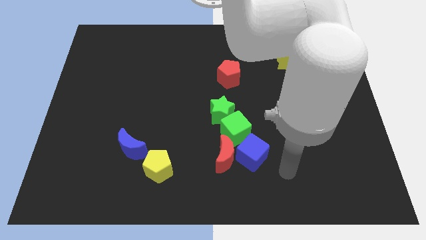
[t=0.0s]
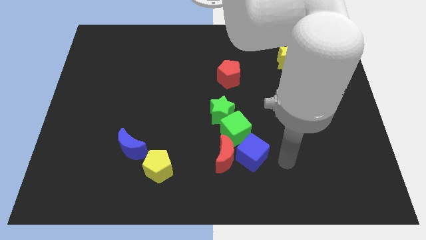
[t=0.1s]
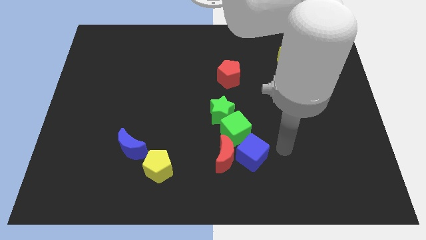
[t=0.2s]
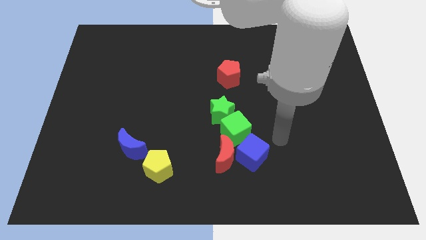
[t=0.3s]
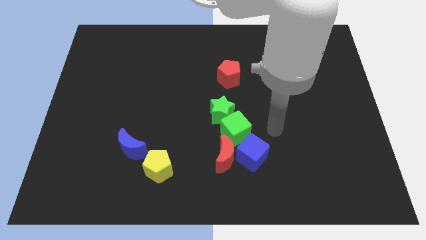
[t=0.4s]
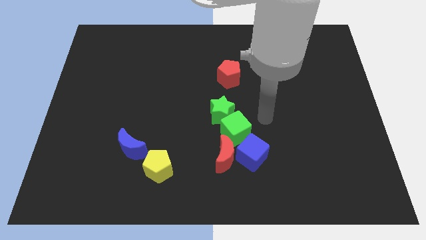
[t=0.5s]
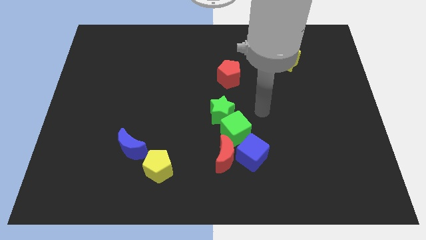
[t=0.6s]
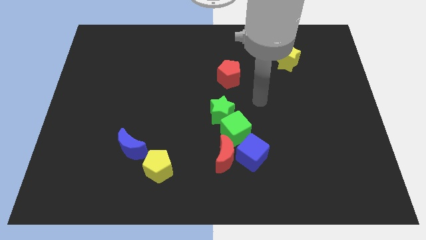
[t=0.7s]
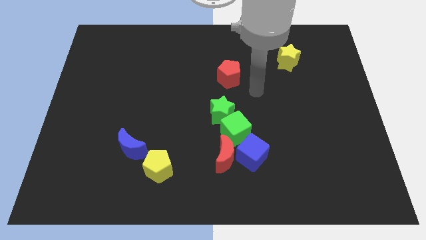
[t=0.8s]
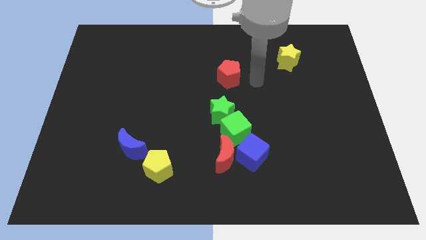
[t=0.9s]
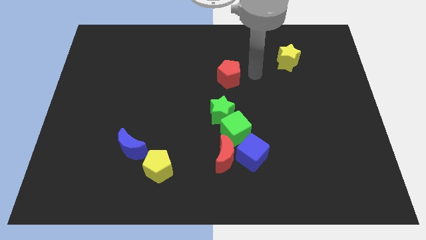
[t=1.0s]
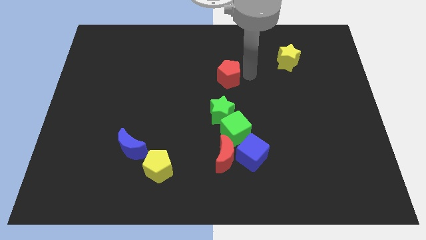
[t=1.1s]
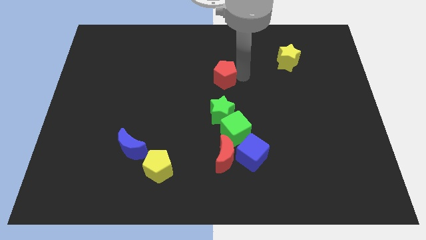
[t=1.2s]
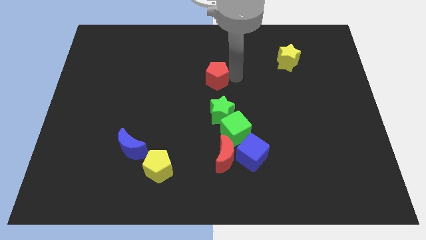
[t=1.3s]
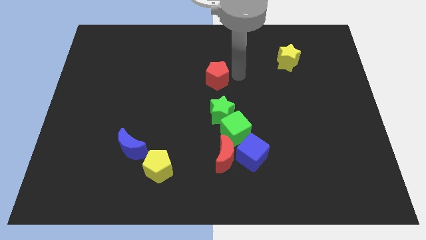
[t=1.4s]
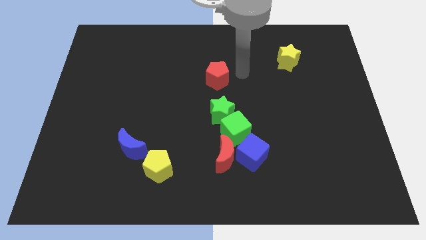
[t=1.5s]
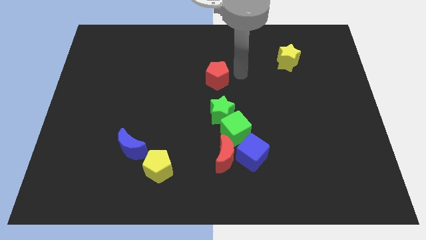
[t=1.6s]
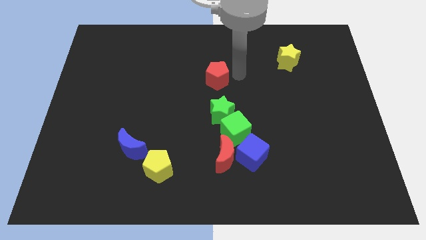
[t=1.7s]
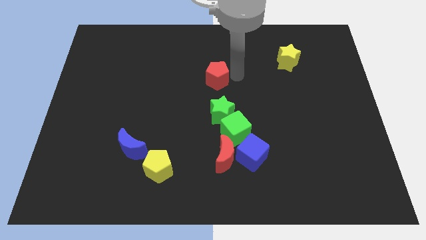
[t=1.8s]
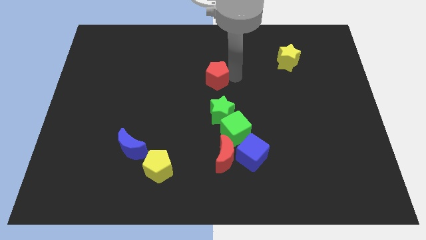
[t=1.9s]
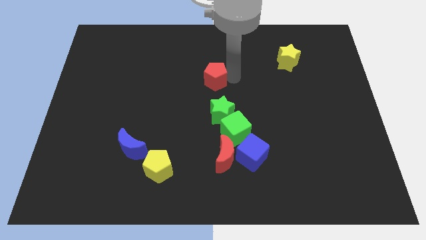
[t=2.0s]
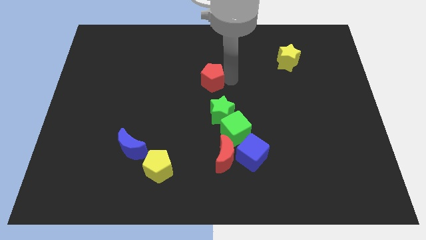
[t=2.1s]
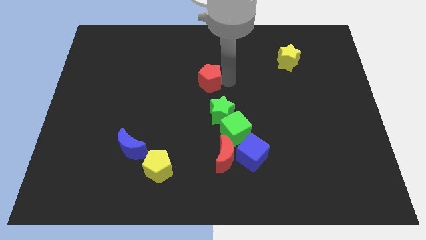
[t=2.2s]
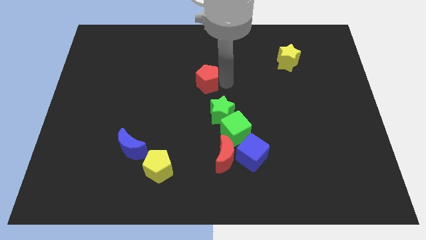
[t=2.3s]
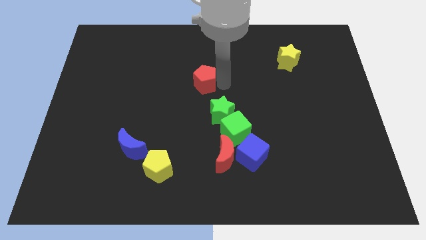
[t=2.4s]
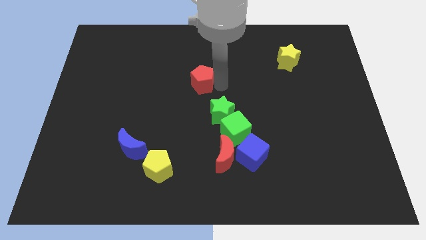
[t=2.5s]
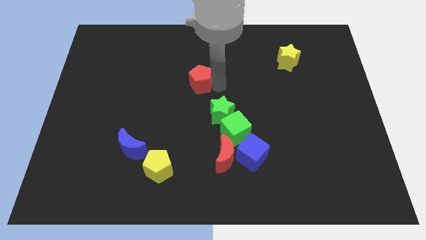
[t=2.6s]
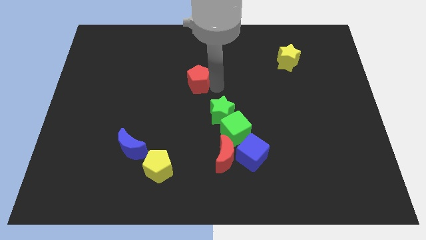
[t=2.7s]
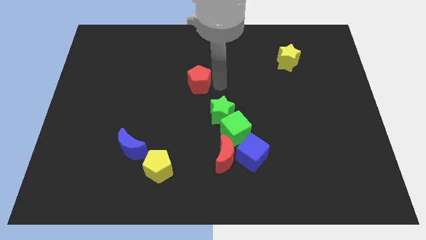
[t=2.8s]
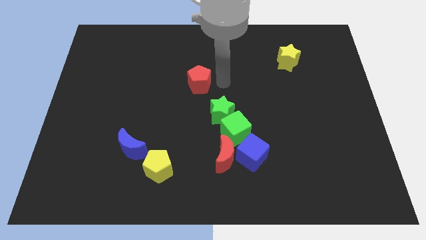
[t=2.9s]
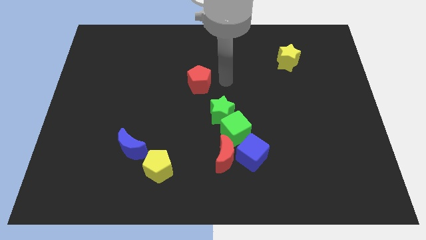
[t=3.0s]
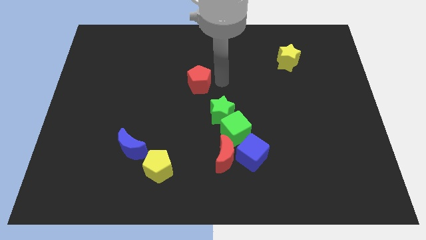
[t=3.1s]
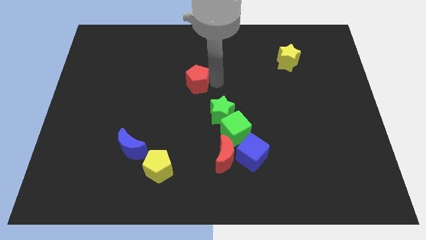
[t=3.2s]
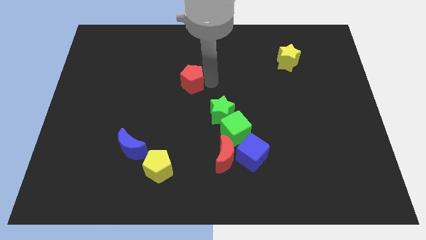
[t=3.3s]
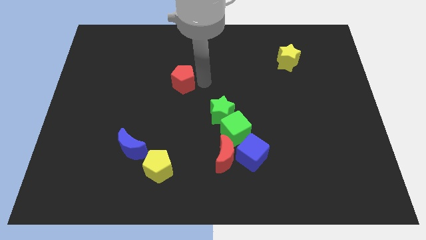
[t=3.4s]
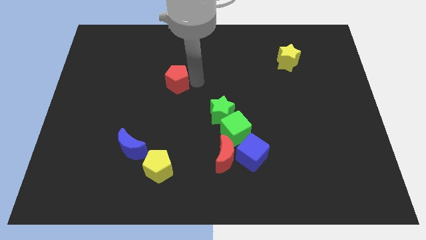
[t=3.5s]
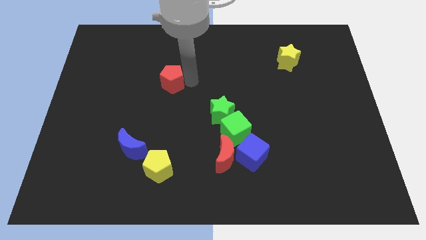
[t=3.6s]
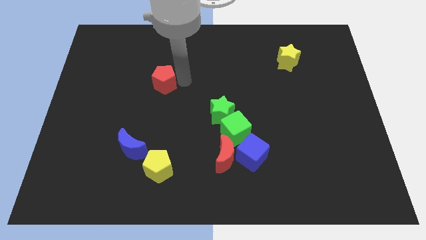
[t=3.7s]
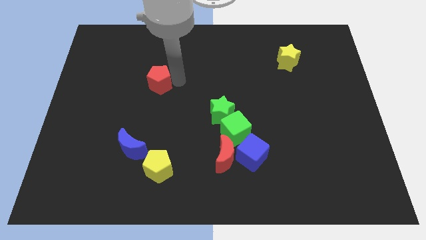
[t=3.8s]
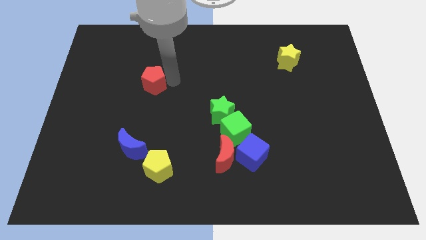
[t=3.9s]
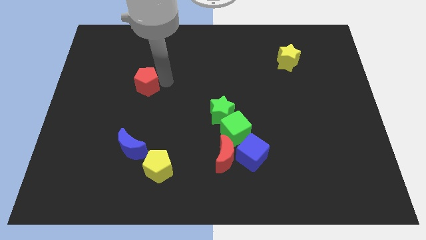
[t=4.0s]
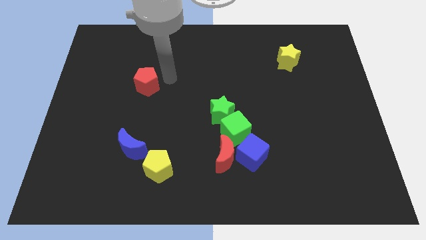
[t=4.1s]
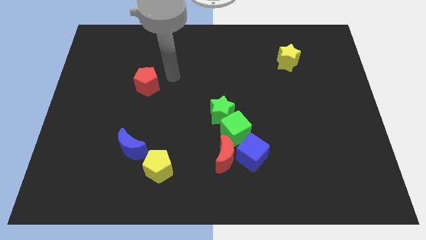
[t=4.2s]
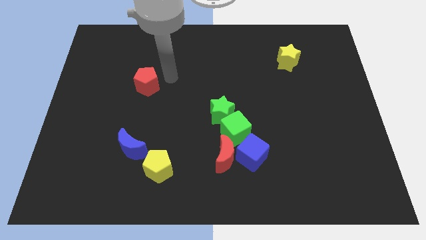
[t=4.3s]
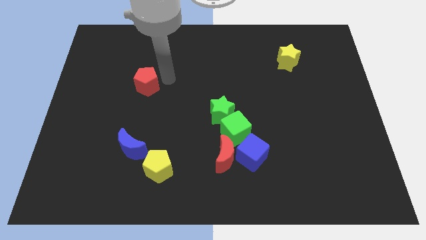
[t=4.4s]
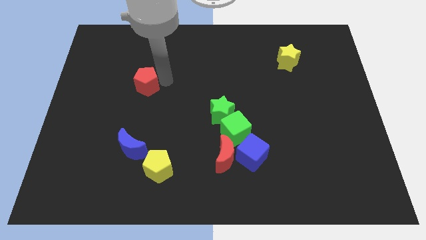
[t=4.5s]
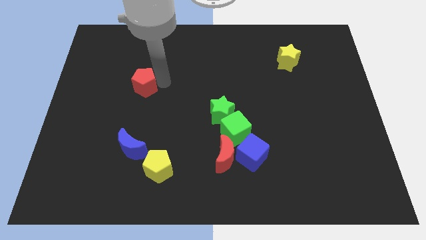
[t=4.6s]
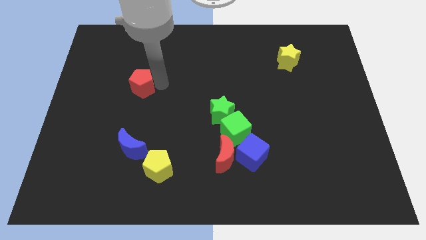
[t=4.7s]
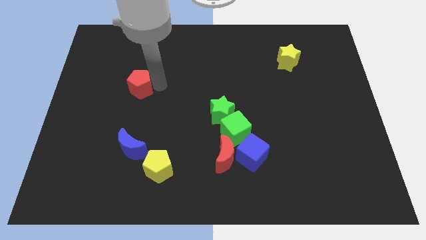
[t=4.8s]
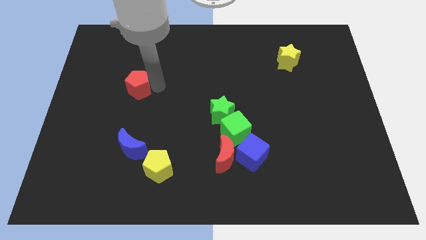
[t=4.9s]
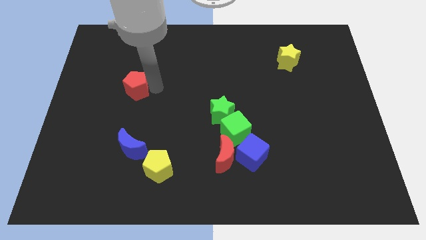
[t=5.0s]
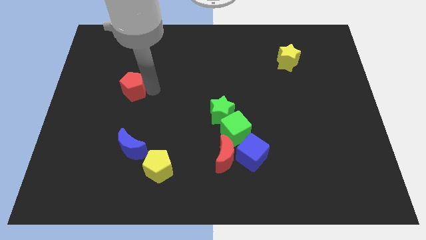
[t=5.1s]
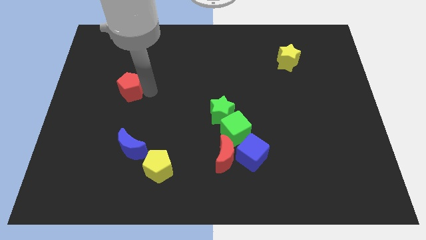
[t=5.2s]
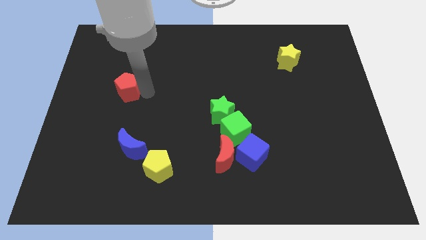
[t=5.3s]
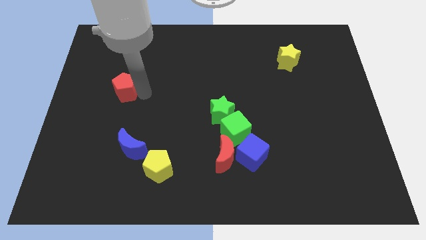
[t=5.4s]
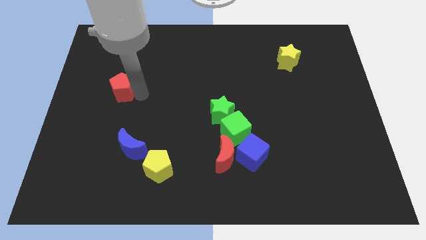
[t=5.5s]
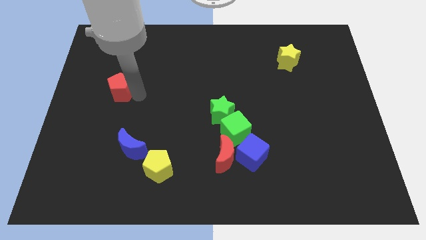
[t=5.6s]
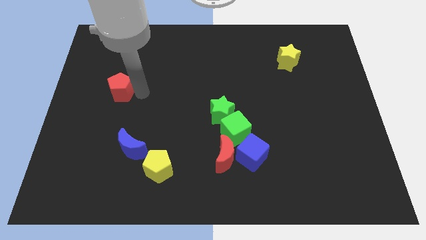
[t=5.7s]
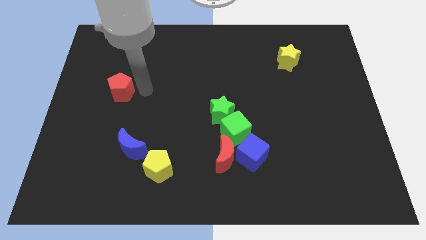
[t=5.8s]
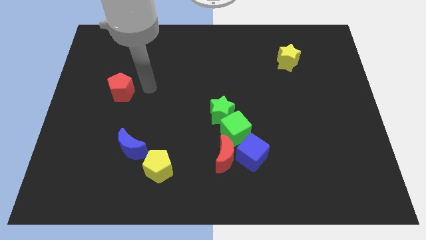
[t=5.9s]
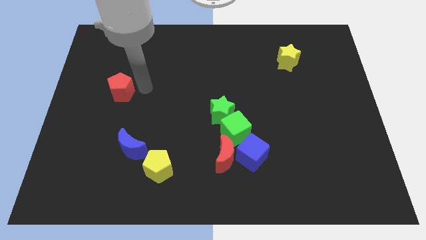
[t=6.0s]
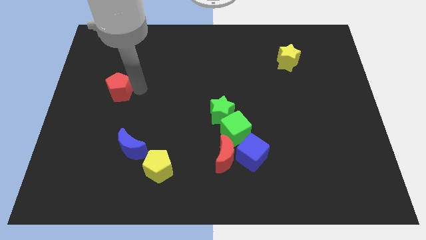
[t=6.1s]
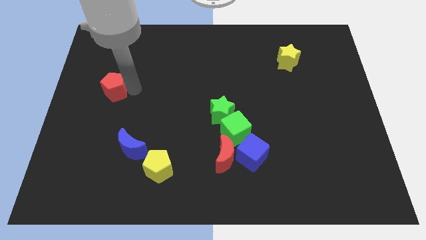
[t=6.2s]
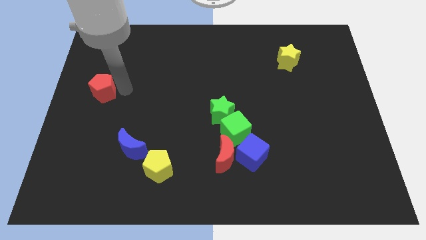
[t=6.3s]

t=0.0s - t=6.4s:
push the red pentagon to the center left

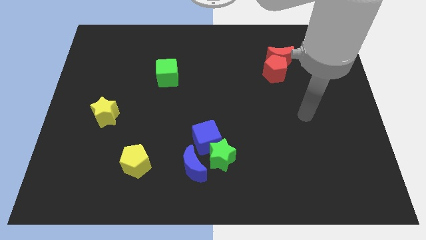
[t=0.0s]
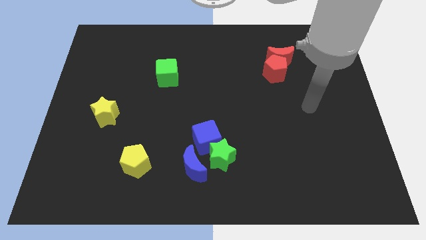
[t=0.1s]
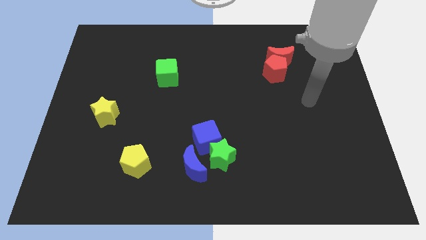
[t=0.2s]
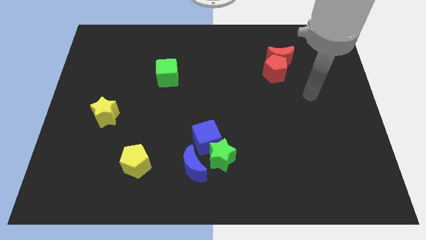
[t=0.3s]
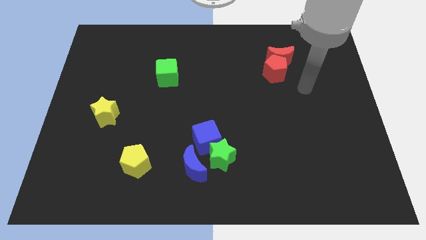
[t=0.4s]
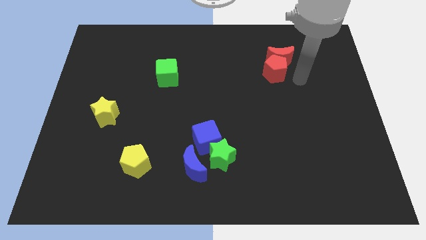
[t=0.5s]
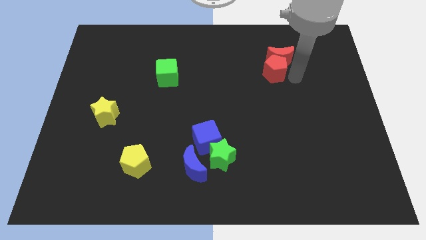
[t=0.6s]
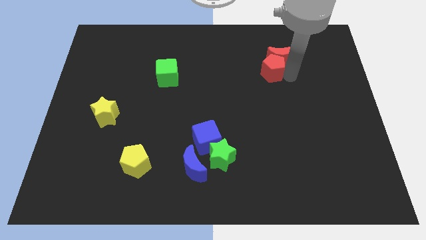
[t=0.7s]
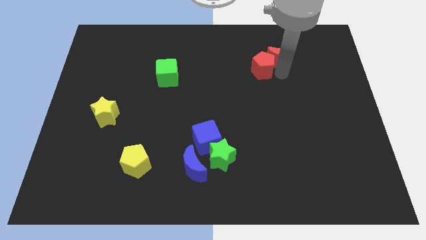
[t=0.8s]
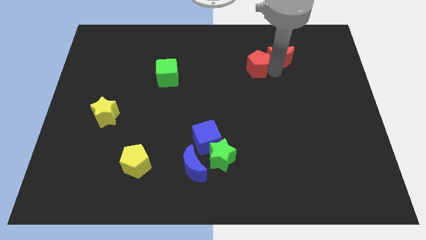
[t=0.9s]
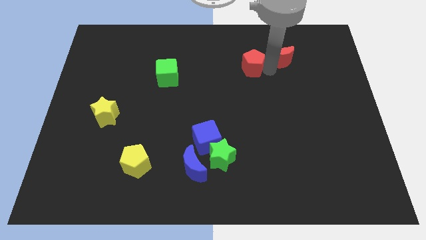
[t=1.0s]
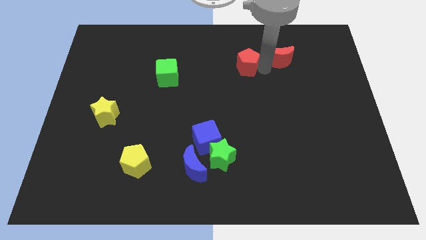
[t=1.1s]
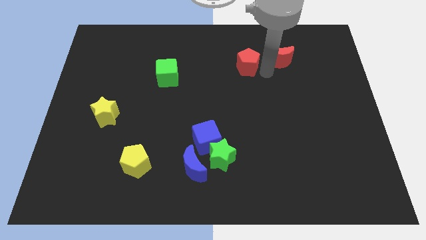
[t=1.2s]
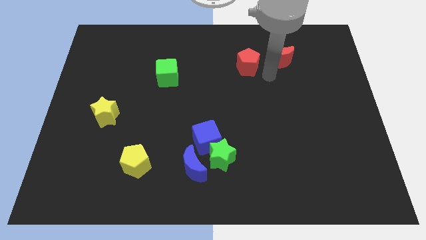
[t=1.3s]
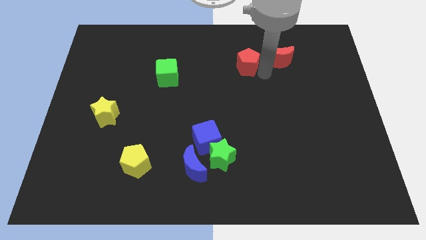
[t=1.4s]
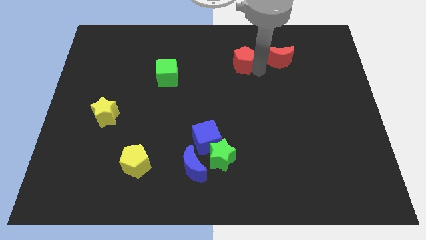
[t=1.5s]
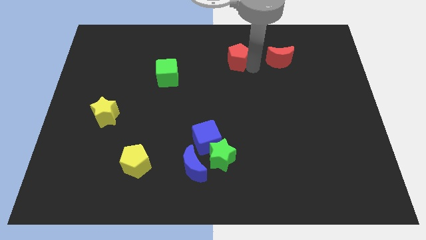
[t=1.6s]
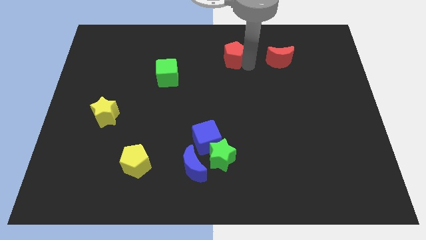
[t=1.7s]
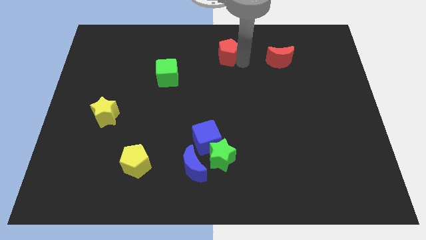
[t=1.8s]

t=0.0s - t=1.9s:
slide the red pentagon to the towards your base
